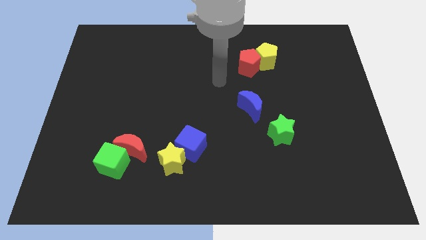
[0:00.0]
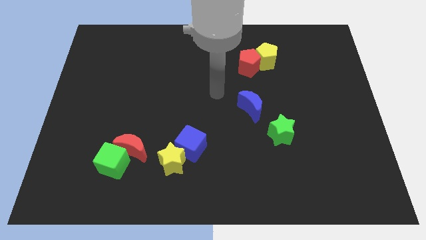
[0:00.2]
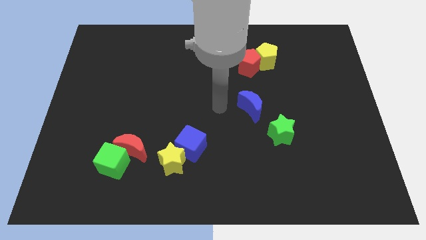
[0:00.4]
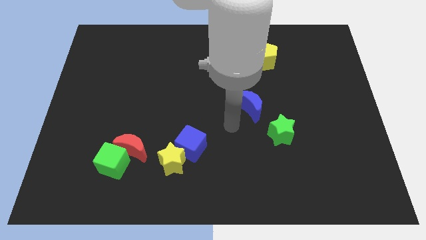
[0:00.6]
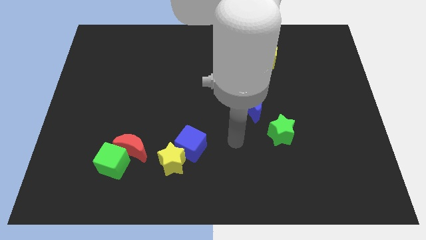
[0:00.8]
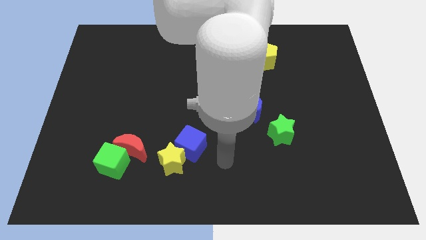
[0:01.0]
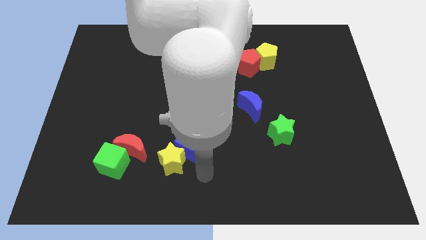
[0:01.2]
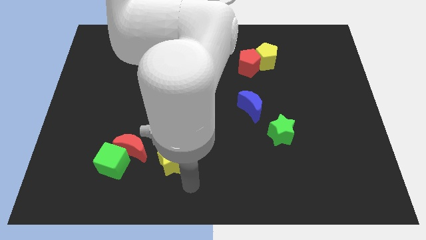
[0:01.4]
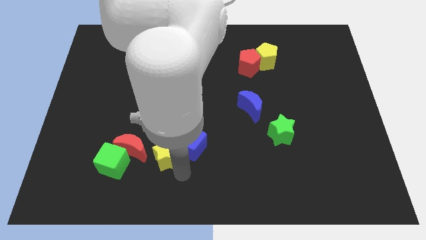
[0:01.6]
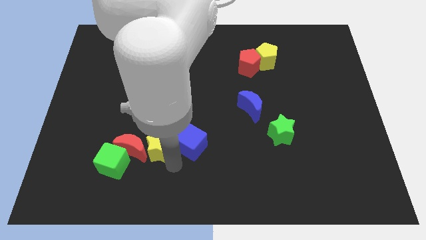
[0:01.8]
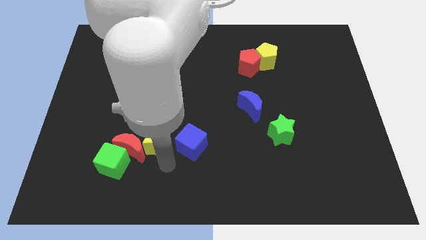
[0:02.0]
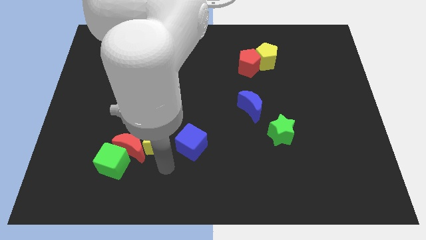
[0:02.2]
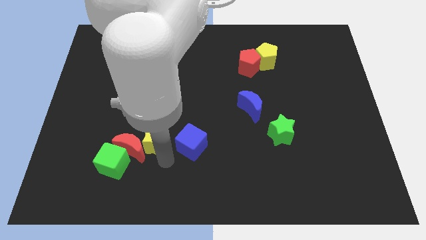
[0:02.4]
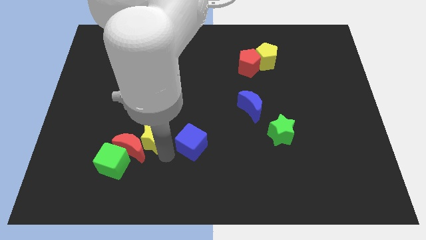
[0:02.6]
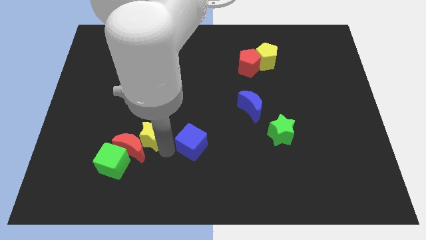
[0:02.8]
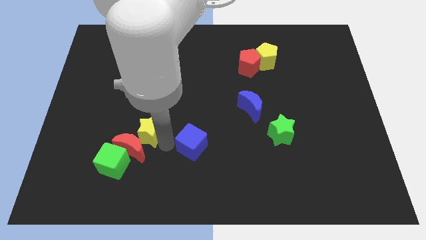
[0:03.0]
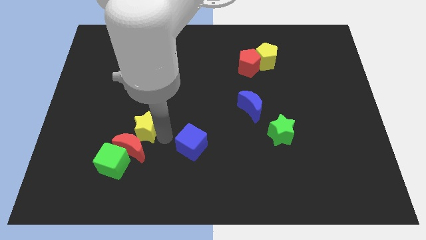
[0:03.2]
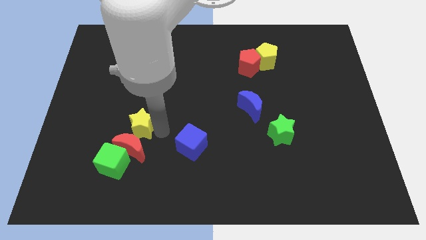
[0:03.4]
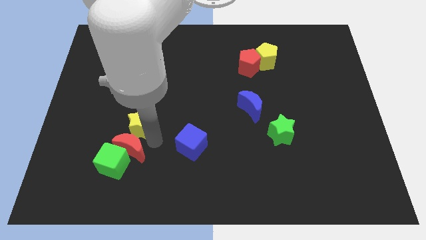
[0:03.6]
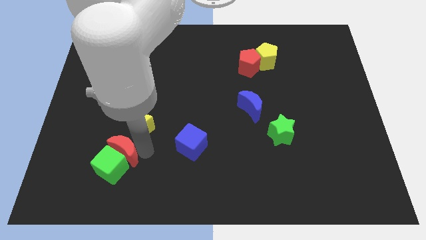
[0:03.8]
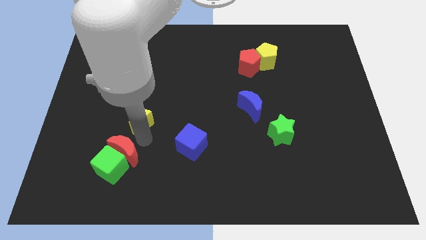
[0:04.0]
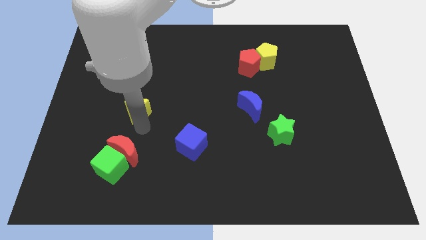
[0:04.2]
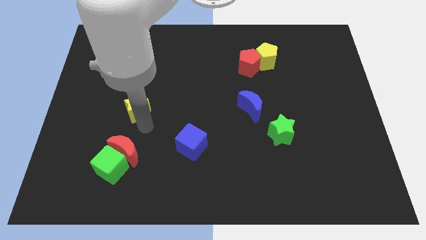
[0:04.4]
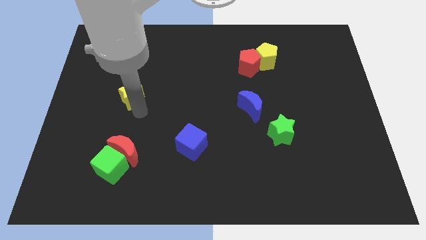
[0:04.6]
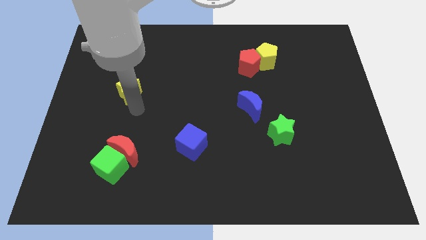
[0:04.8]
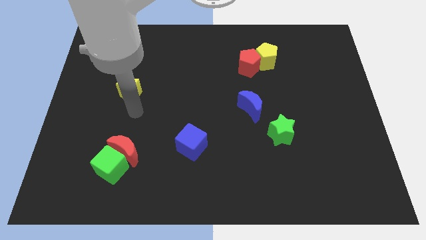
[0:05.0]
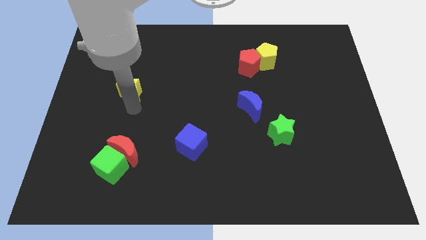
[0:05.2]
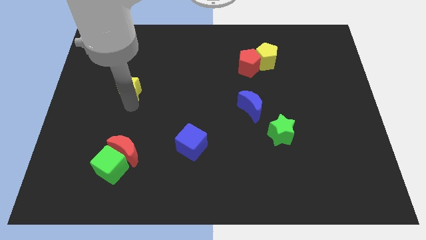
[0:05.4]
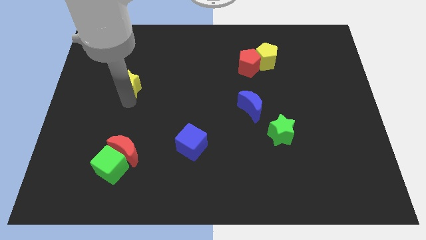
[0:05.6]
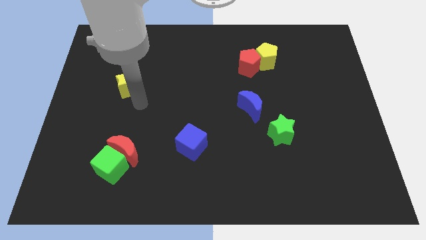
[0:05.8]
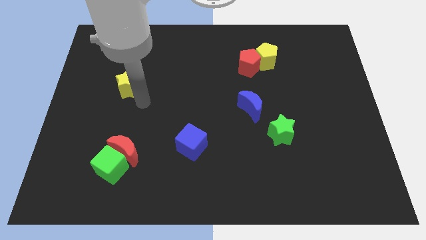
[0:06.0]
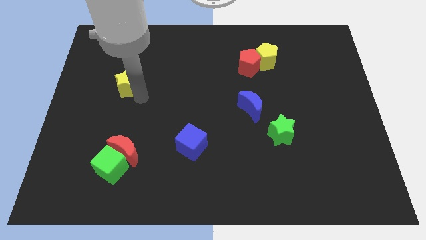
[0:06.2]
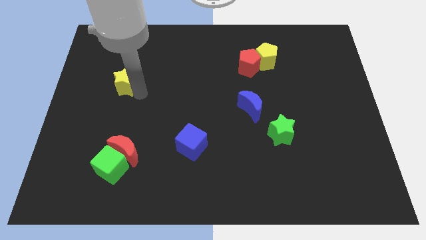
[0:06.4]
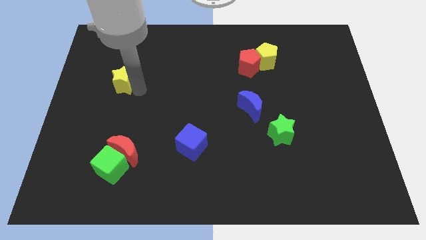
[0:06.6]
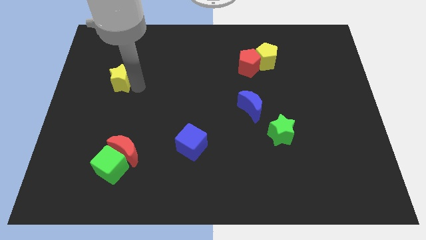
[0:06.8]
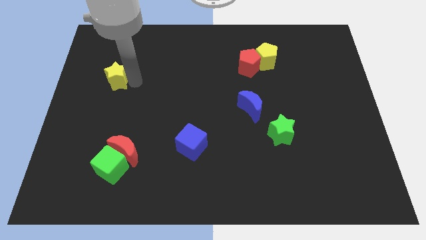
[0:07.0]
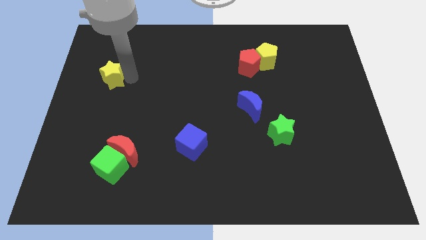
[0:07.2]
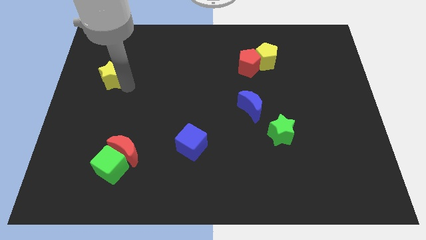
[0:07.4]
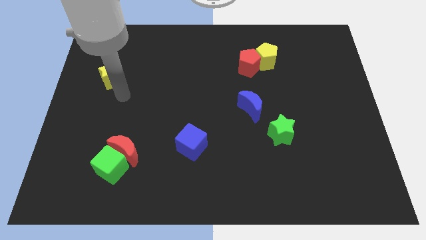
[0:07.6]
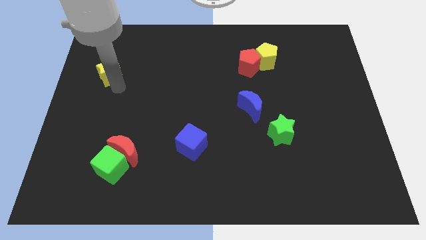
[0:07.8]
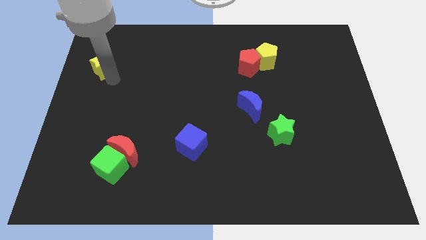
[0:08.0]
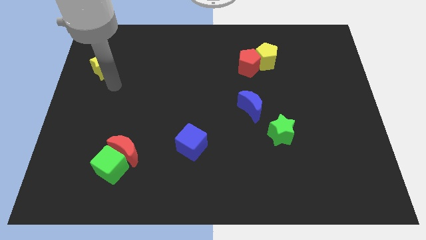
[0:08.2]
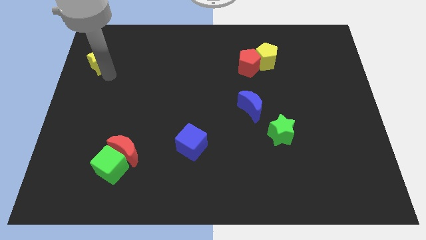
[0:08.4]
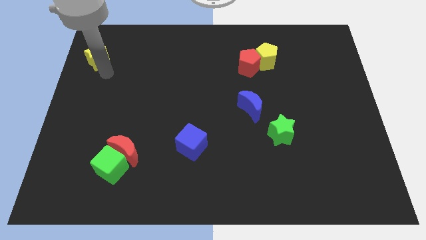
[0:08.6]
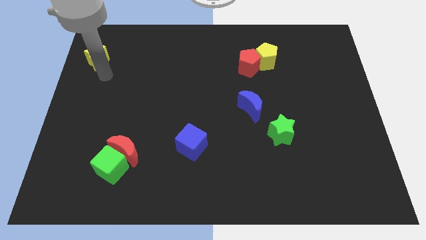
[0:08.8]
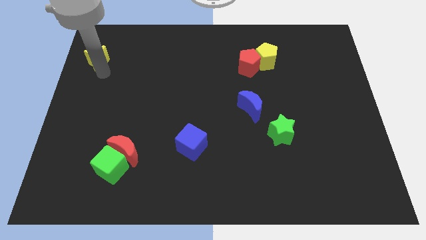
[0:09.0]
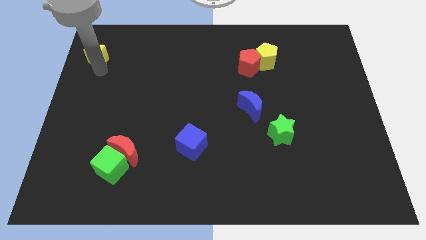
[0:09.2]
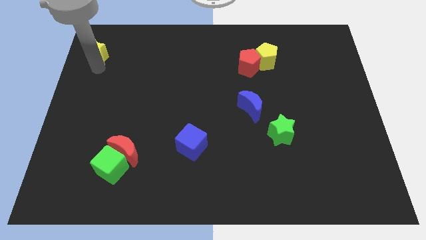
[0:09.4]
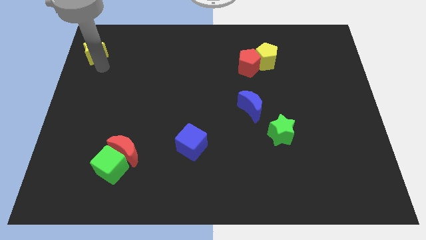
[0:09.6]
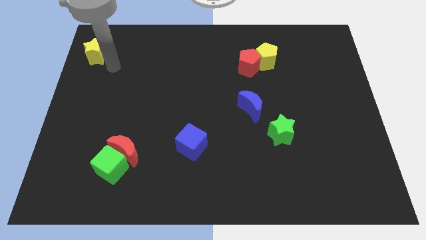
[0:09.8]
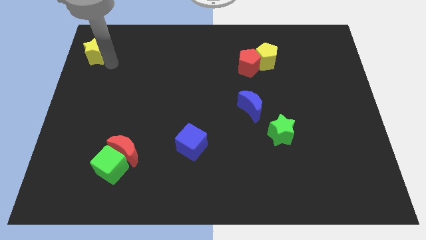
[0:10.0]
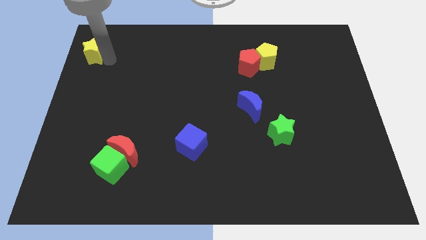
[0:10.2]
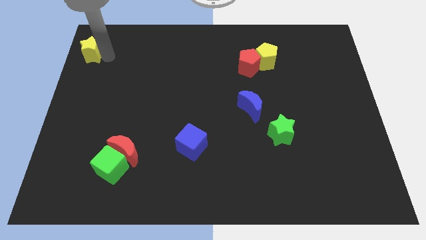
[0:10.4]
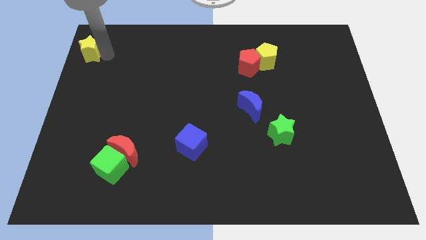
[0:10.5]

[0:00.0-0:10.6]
push the yellow star to the top left of the board

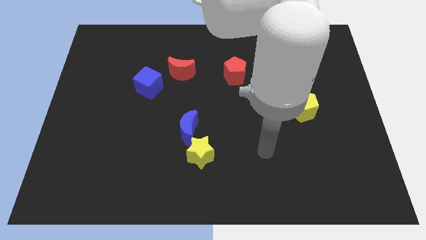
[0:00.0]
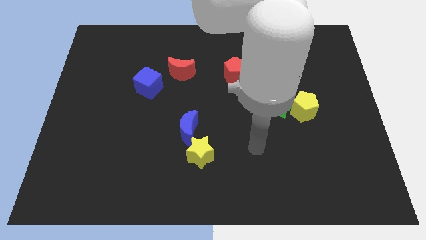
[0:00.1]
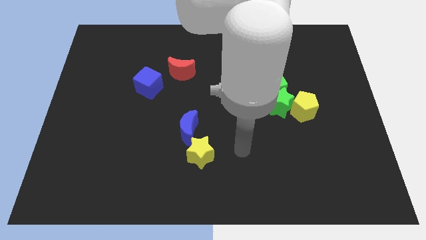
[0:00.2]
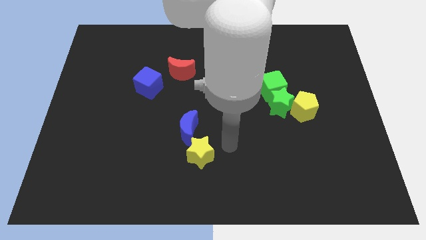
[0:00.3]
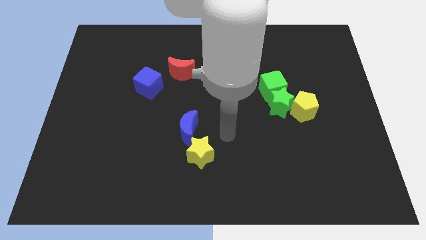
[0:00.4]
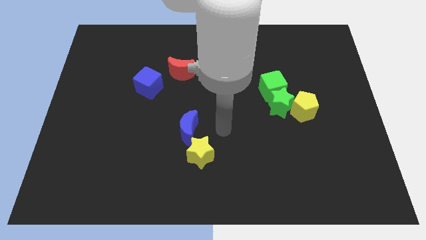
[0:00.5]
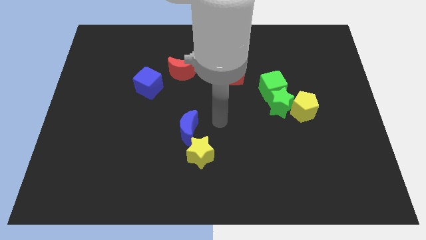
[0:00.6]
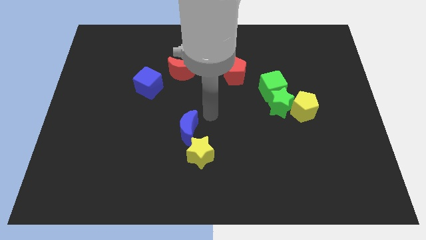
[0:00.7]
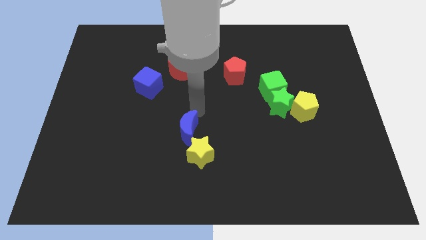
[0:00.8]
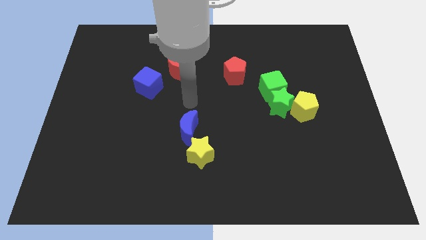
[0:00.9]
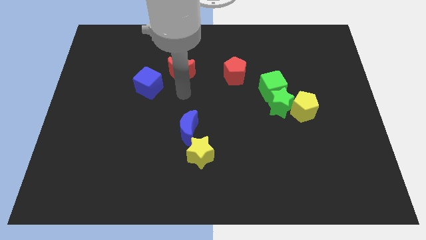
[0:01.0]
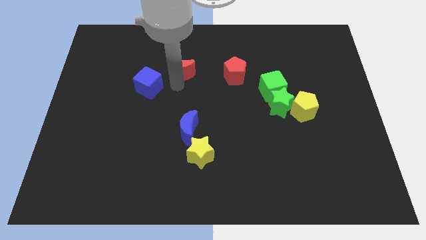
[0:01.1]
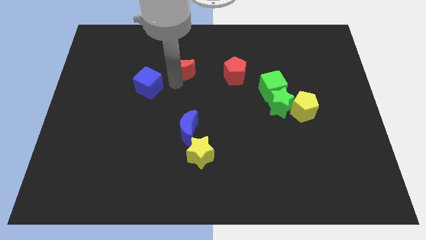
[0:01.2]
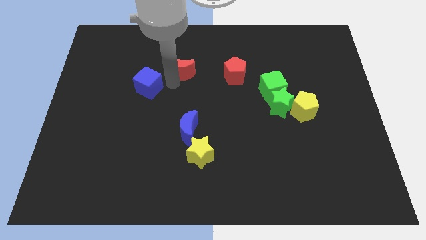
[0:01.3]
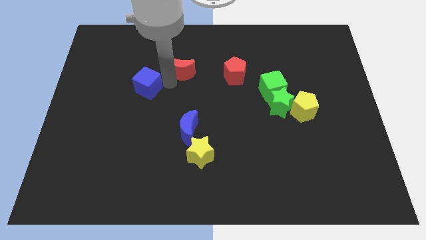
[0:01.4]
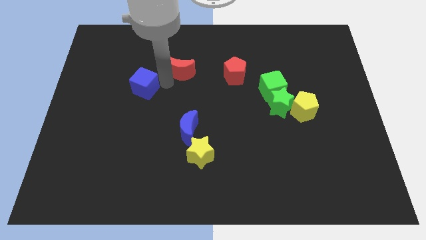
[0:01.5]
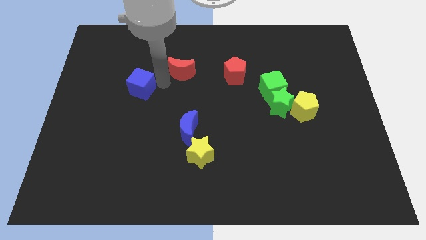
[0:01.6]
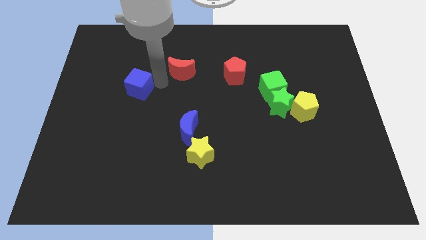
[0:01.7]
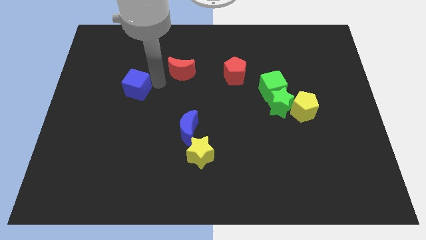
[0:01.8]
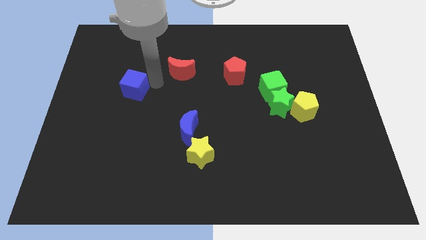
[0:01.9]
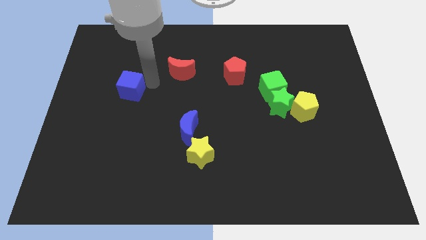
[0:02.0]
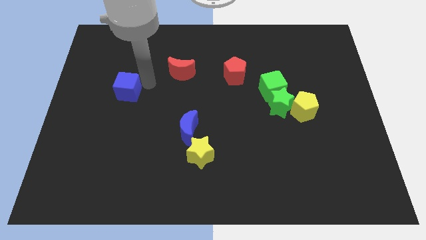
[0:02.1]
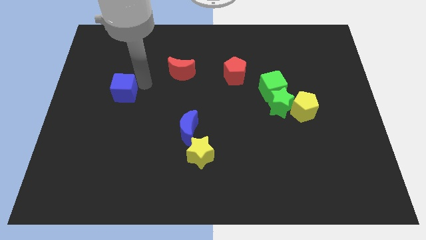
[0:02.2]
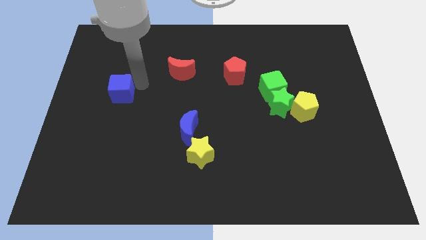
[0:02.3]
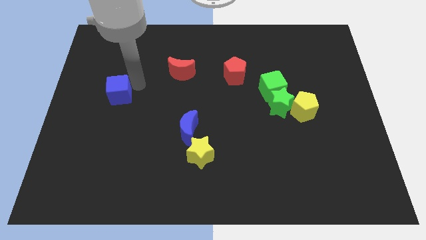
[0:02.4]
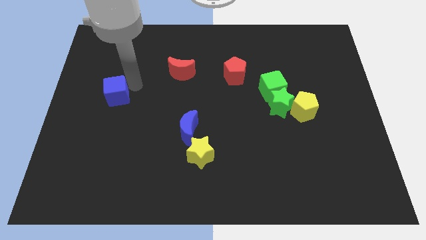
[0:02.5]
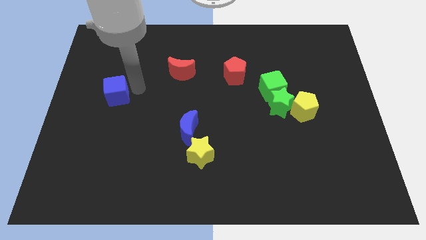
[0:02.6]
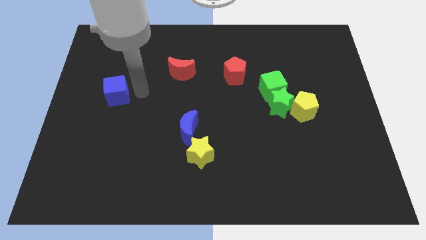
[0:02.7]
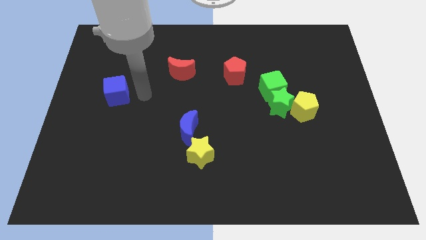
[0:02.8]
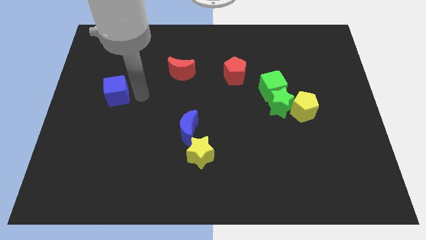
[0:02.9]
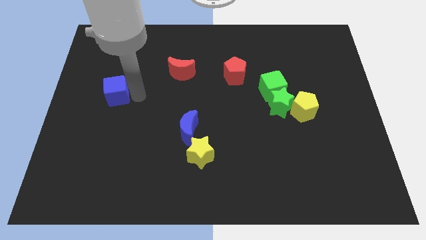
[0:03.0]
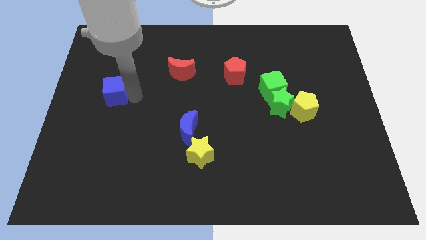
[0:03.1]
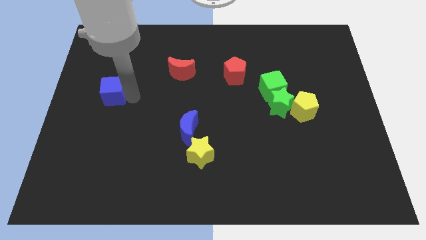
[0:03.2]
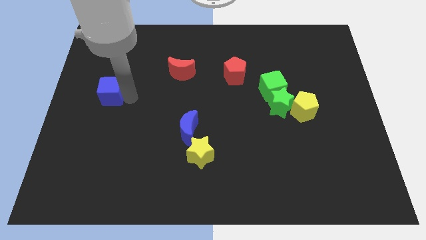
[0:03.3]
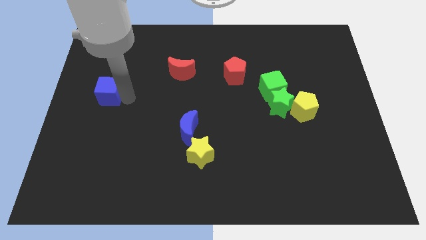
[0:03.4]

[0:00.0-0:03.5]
slide the blue cube to the center left
